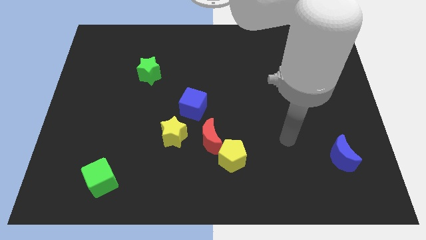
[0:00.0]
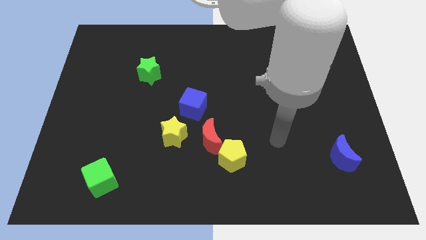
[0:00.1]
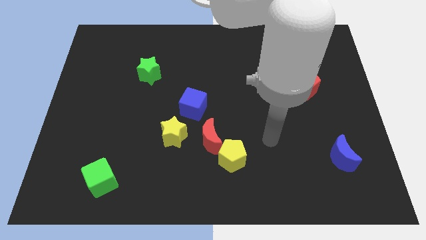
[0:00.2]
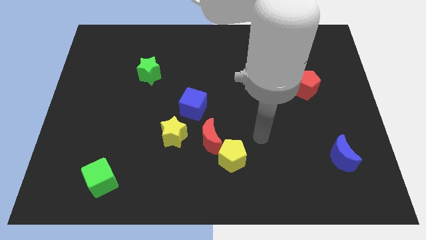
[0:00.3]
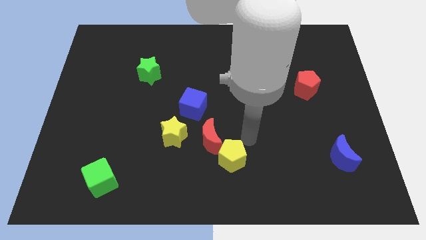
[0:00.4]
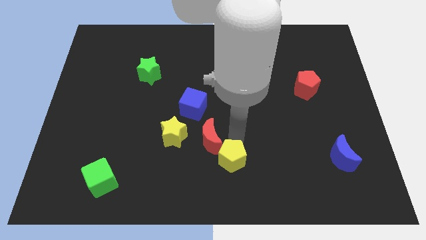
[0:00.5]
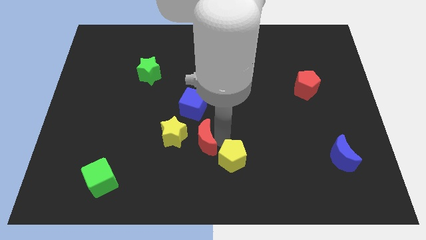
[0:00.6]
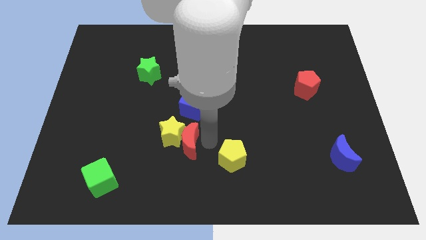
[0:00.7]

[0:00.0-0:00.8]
move the yellow pentagon away from the red moon

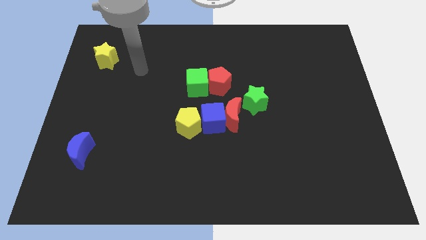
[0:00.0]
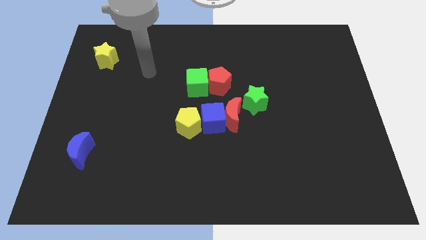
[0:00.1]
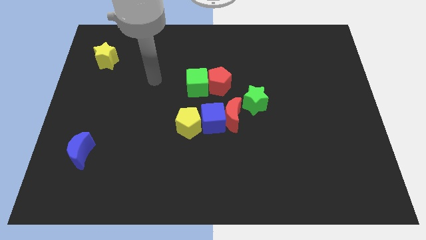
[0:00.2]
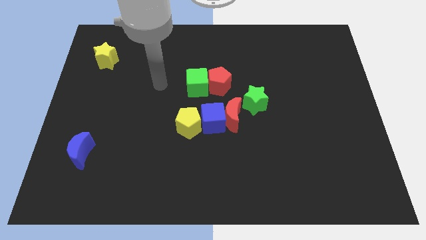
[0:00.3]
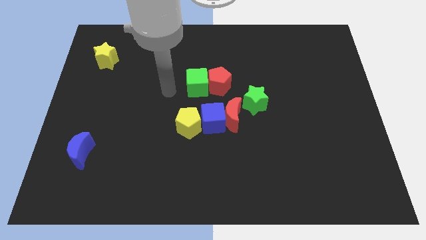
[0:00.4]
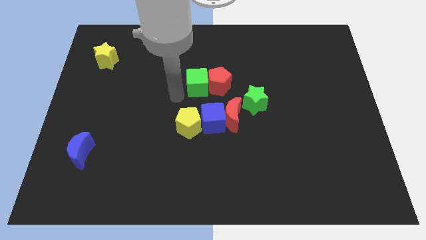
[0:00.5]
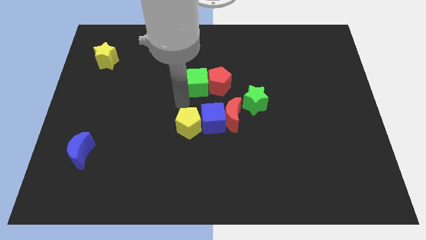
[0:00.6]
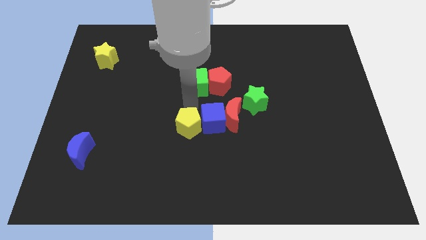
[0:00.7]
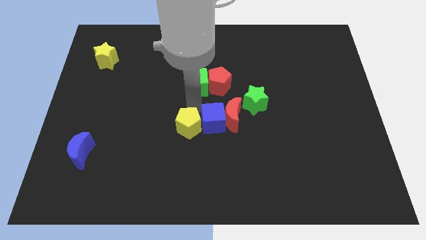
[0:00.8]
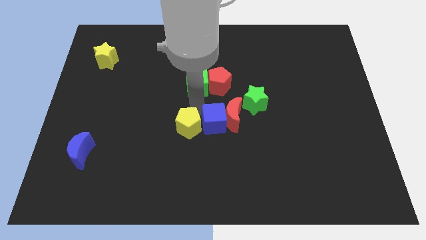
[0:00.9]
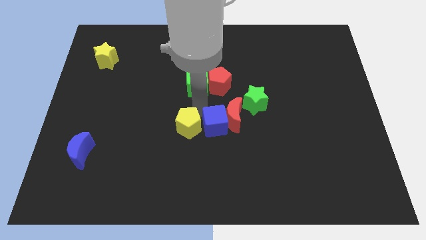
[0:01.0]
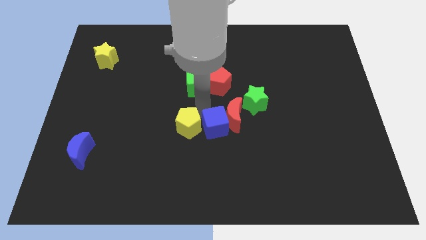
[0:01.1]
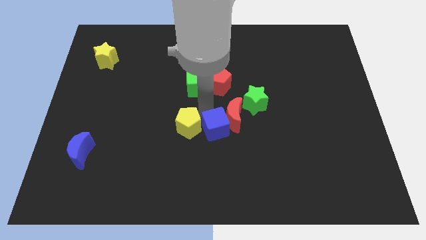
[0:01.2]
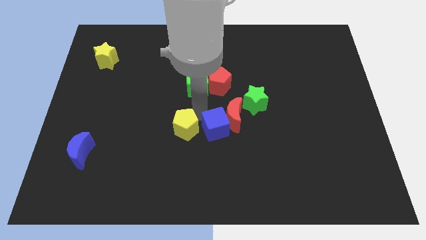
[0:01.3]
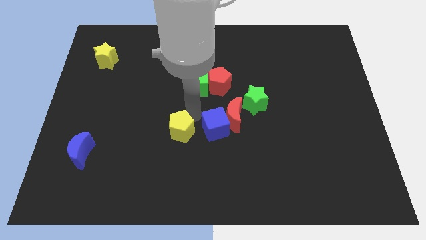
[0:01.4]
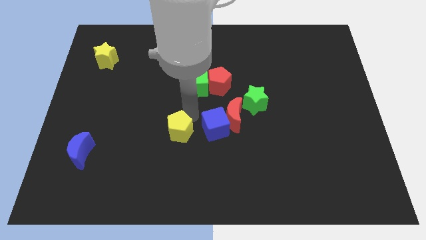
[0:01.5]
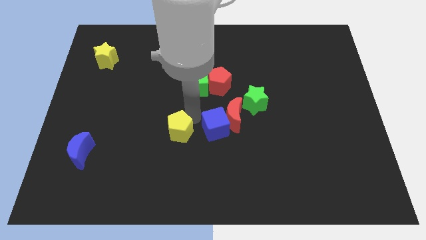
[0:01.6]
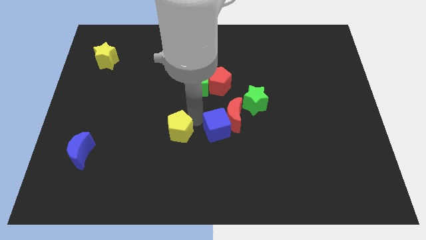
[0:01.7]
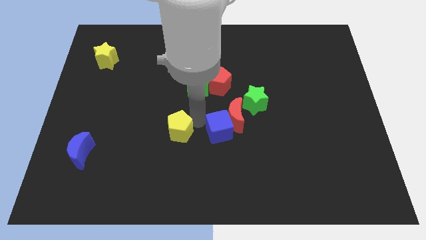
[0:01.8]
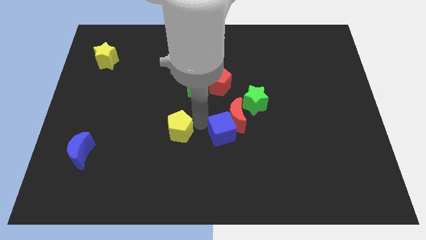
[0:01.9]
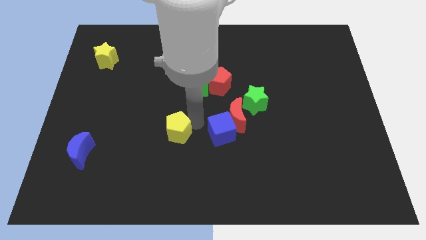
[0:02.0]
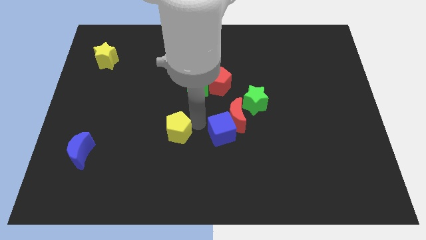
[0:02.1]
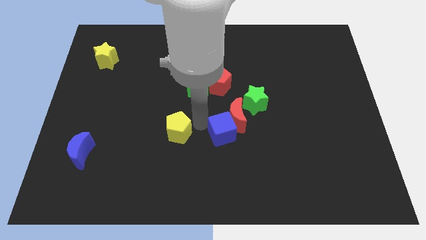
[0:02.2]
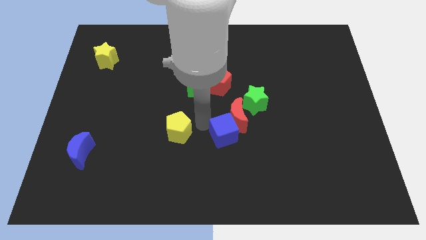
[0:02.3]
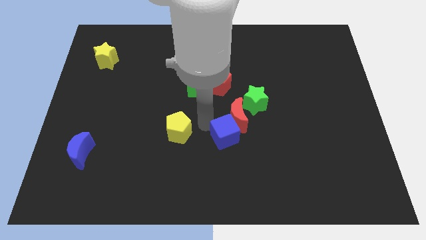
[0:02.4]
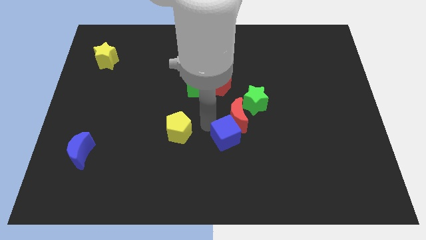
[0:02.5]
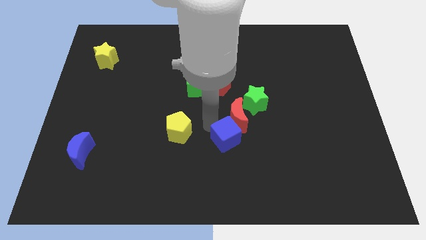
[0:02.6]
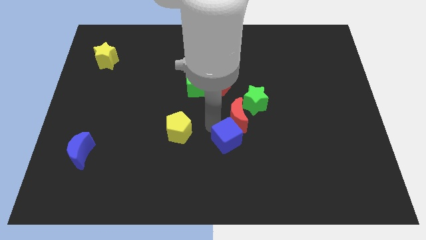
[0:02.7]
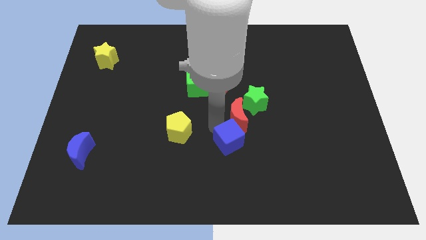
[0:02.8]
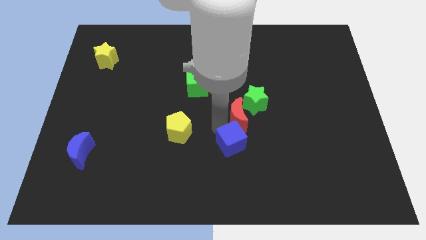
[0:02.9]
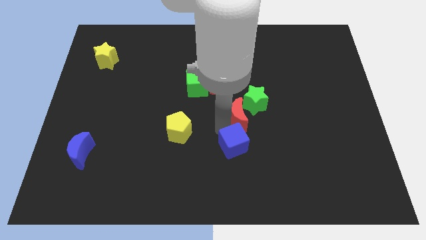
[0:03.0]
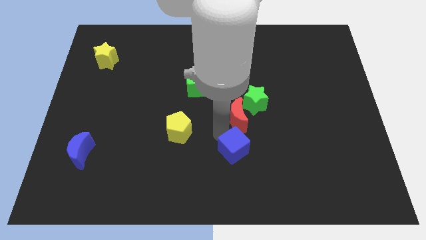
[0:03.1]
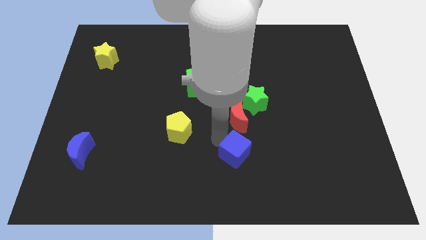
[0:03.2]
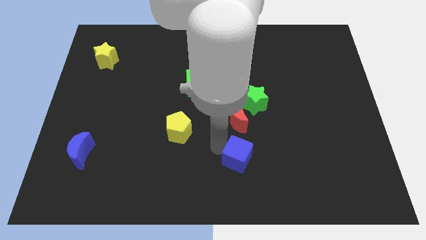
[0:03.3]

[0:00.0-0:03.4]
pull the blue cube apart from the red moon and yellow pentagon

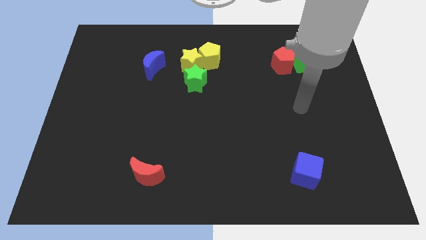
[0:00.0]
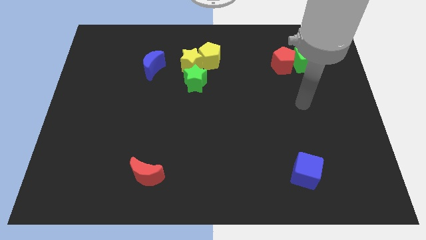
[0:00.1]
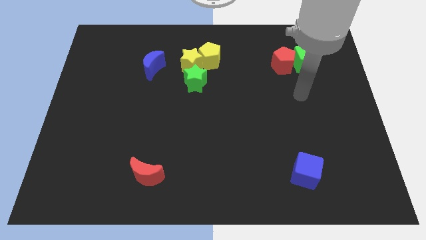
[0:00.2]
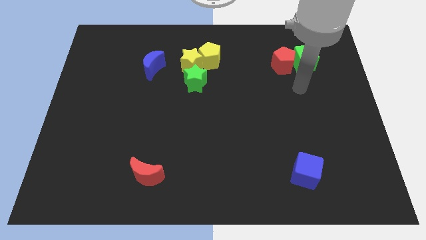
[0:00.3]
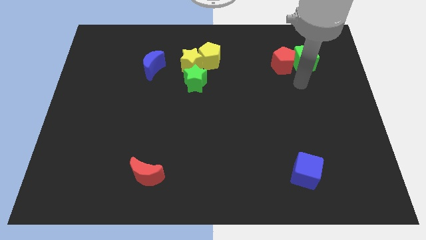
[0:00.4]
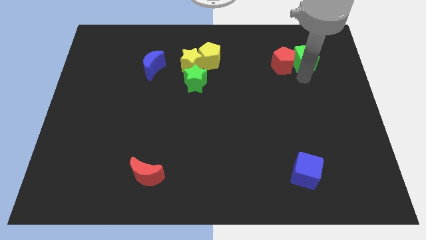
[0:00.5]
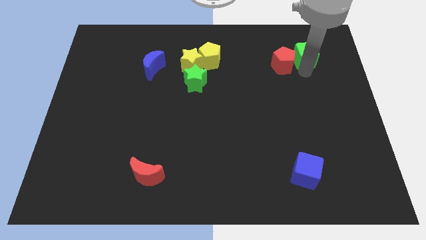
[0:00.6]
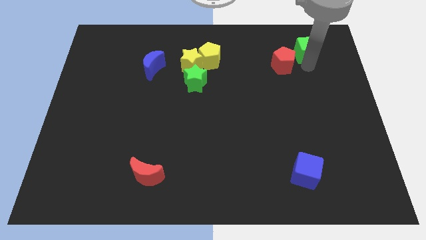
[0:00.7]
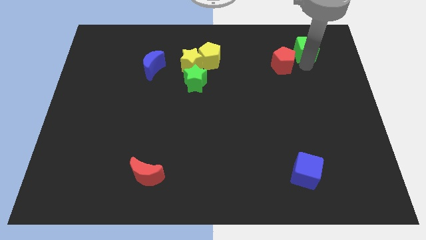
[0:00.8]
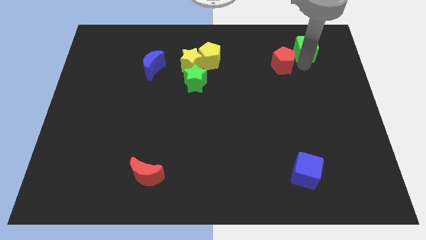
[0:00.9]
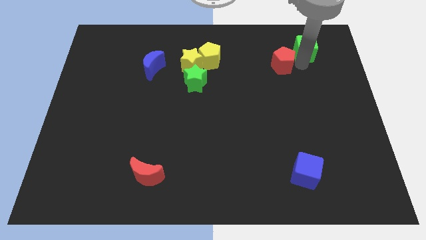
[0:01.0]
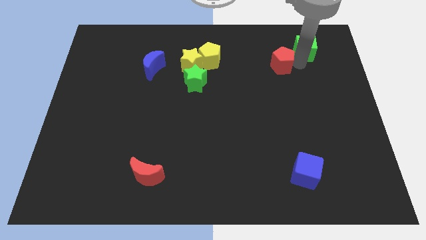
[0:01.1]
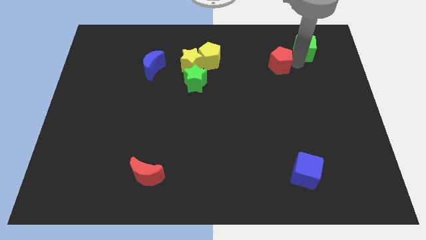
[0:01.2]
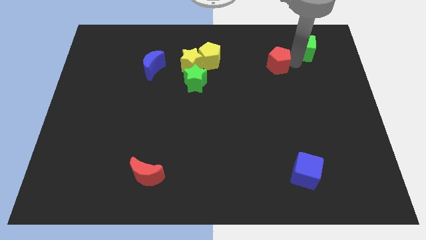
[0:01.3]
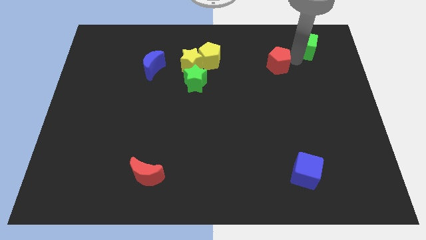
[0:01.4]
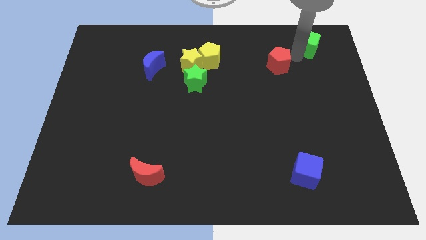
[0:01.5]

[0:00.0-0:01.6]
pull the red pentagon apart from the green cube

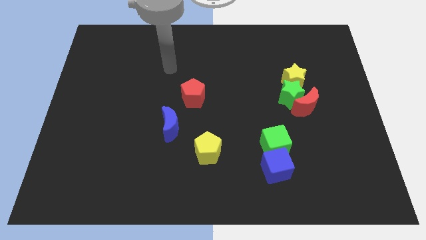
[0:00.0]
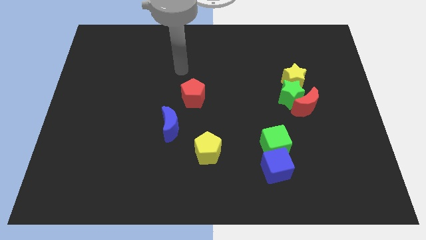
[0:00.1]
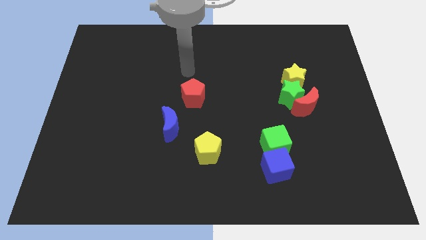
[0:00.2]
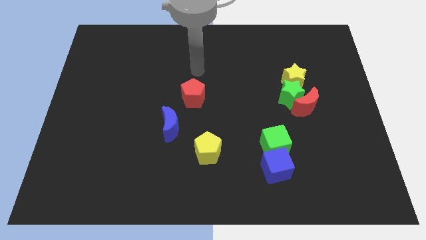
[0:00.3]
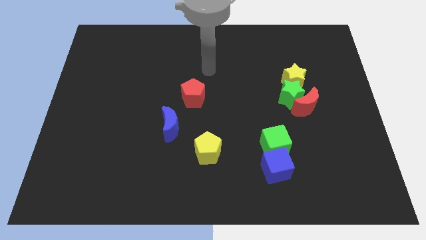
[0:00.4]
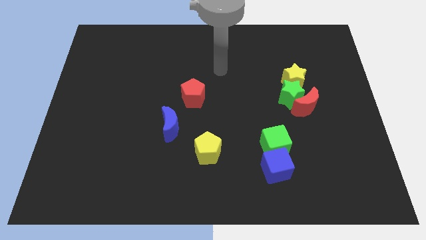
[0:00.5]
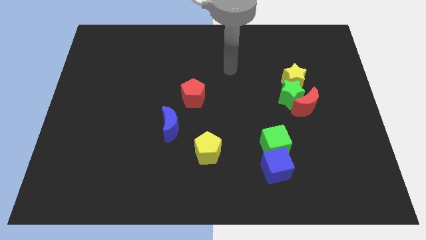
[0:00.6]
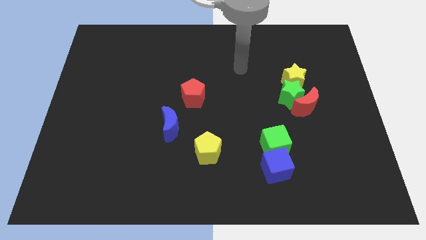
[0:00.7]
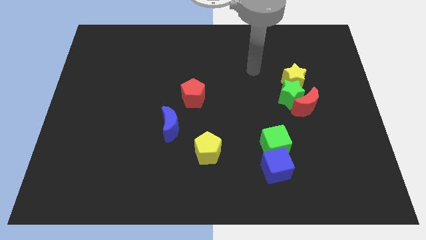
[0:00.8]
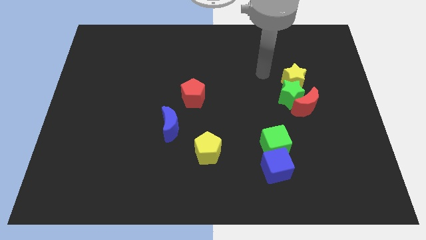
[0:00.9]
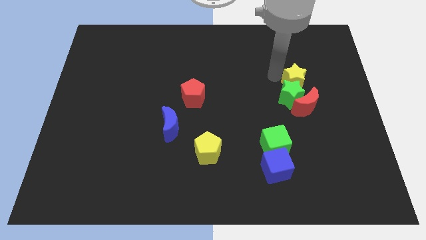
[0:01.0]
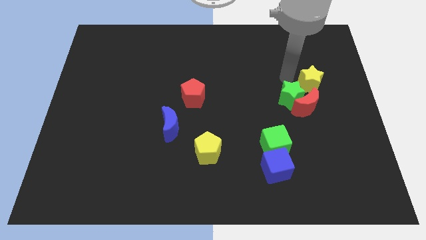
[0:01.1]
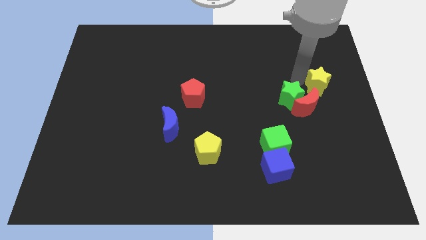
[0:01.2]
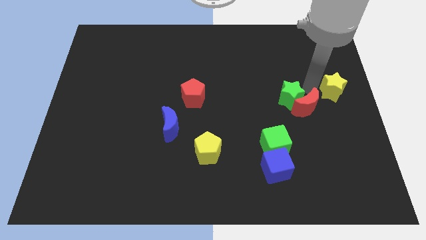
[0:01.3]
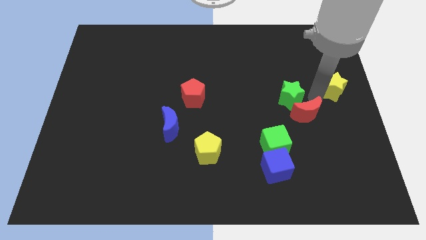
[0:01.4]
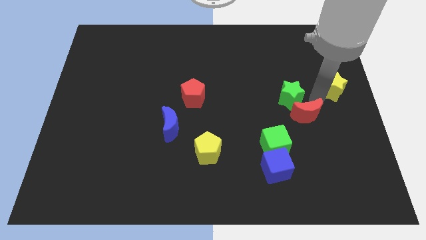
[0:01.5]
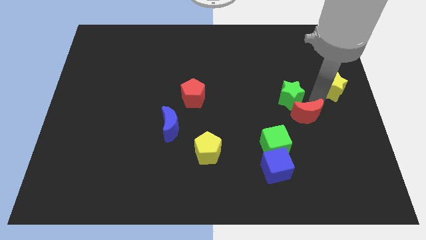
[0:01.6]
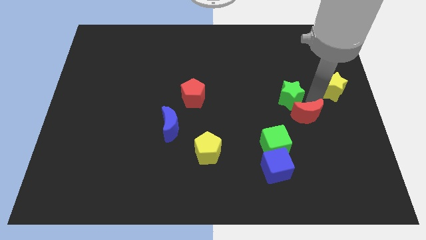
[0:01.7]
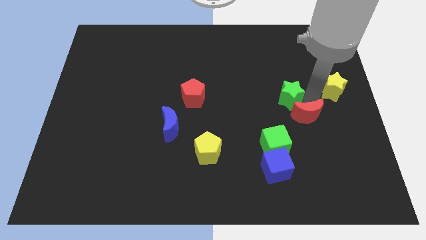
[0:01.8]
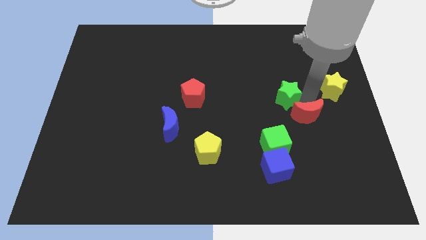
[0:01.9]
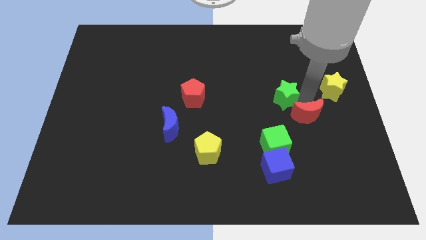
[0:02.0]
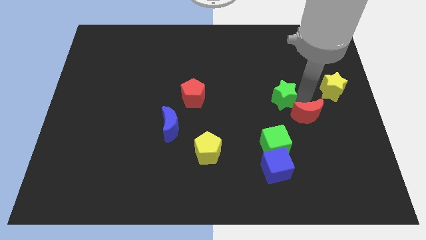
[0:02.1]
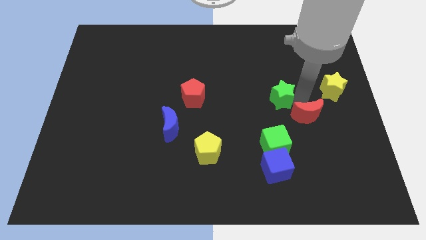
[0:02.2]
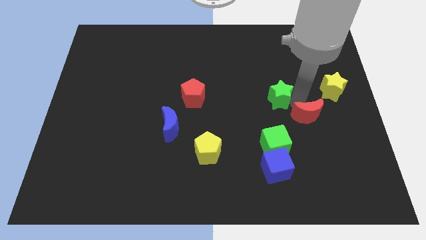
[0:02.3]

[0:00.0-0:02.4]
move the green star away from the red moon and yellow star

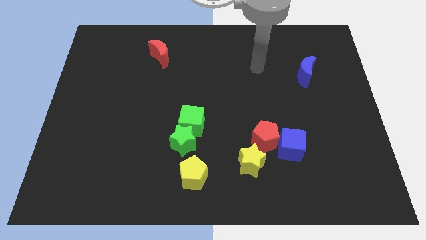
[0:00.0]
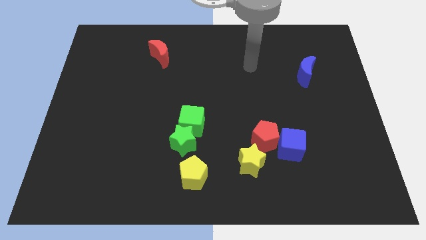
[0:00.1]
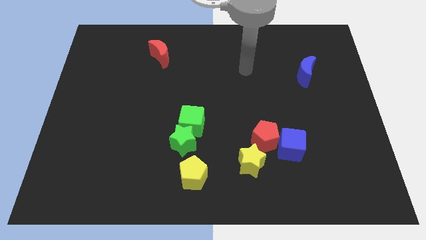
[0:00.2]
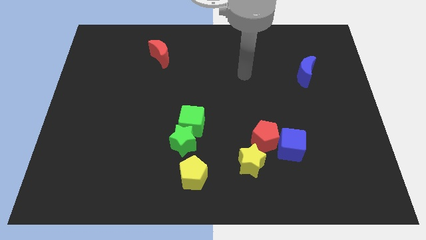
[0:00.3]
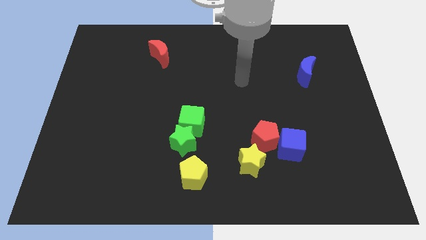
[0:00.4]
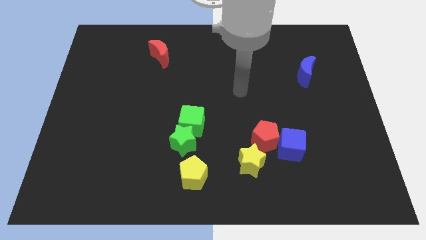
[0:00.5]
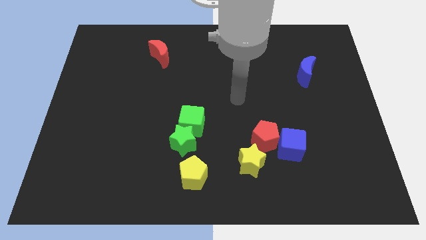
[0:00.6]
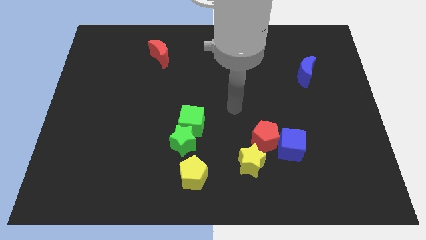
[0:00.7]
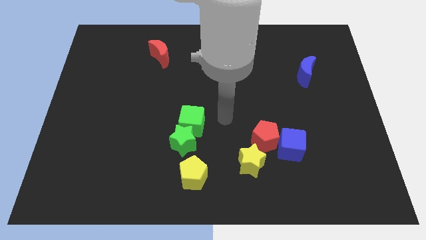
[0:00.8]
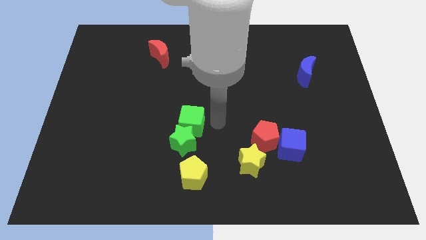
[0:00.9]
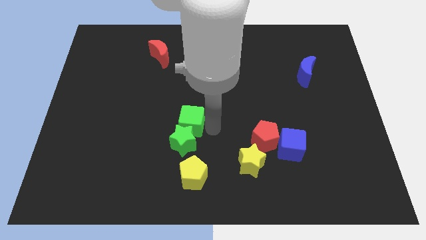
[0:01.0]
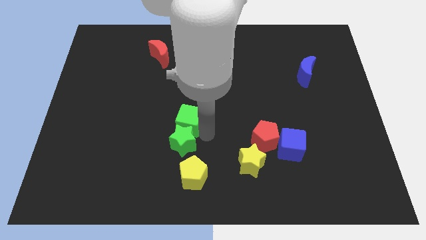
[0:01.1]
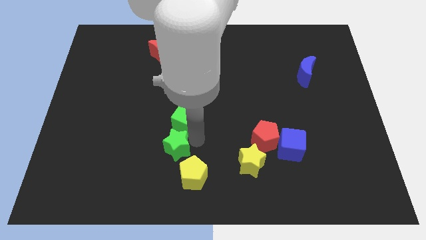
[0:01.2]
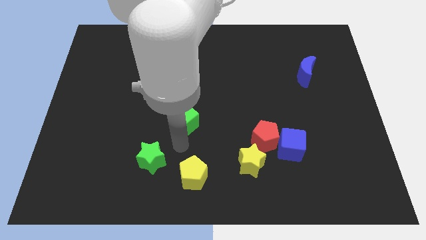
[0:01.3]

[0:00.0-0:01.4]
pull the green cube apart from the green star
